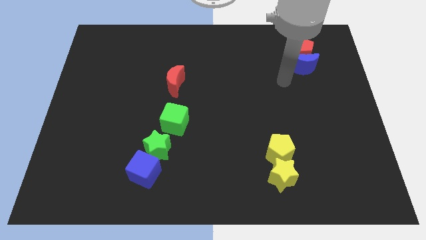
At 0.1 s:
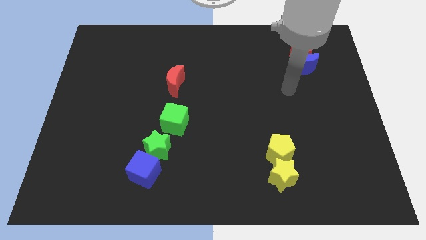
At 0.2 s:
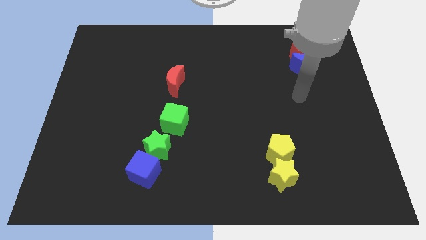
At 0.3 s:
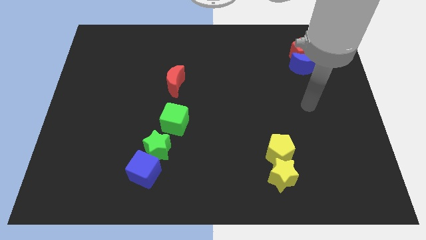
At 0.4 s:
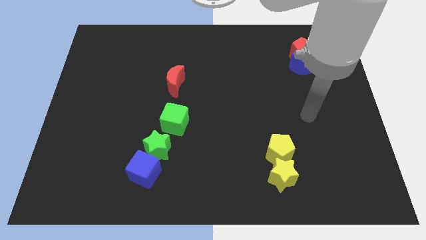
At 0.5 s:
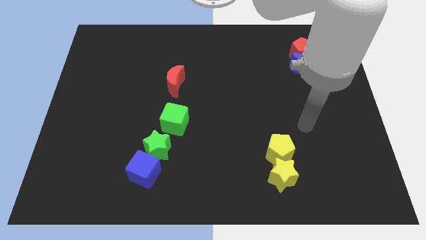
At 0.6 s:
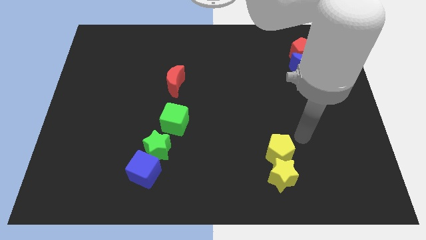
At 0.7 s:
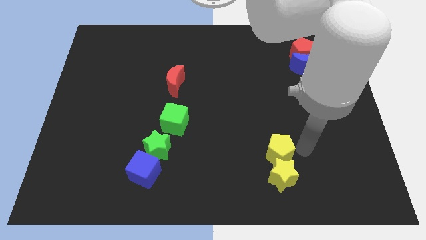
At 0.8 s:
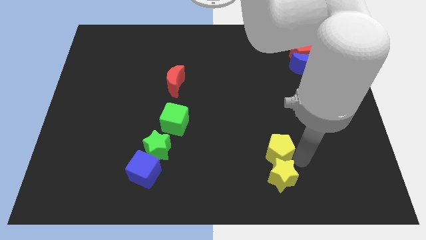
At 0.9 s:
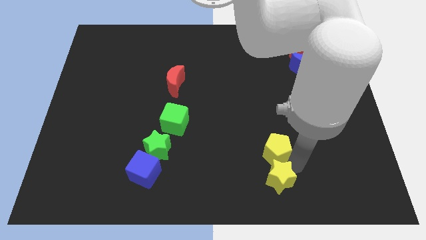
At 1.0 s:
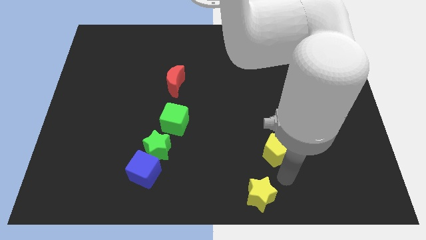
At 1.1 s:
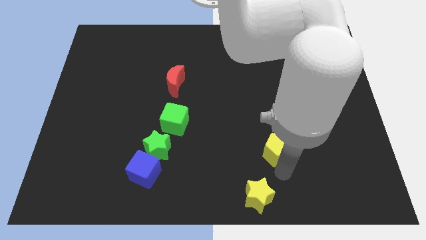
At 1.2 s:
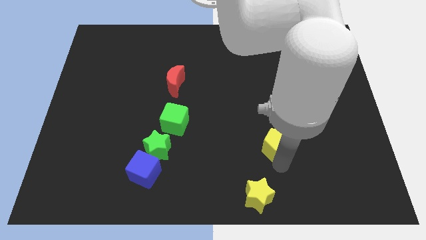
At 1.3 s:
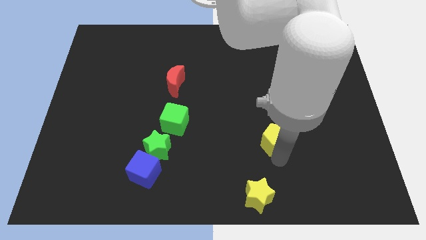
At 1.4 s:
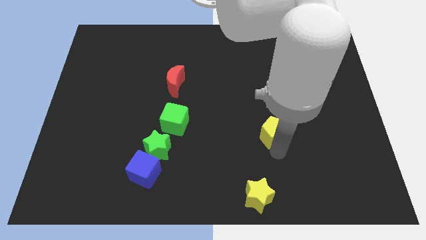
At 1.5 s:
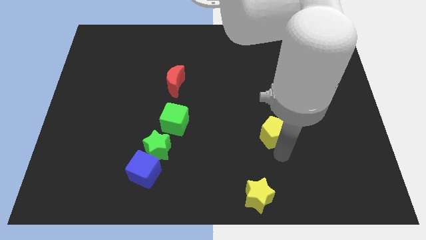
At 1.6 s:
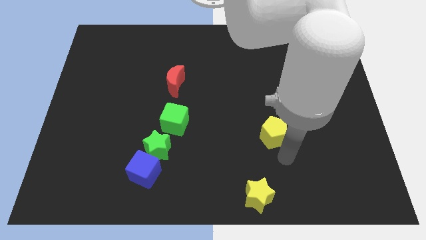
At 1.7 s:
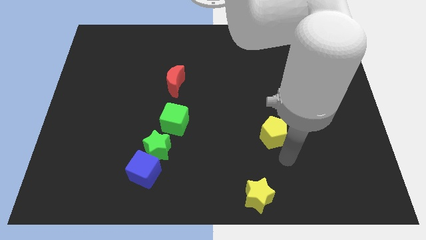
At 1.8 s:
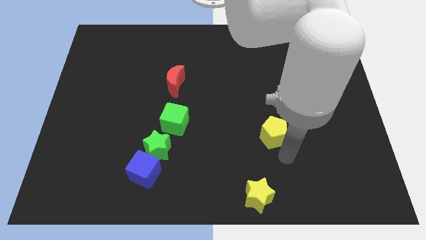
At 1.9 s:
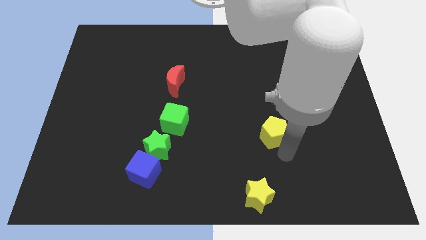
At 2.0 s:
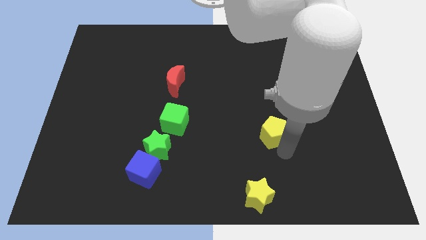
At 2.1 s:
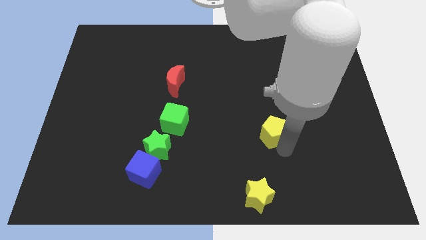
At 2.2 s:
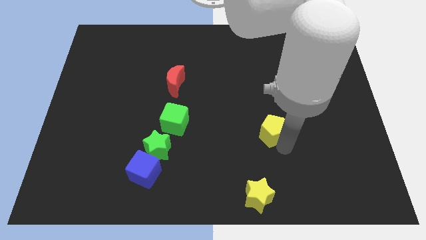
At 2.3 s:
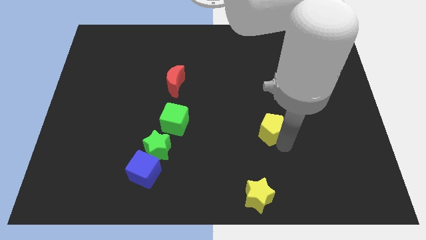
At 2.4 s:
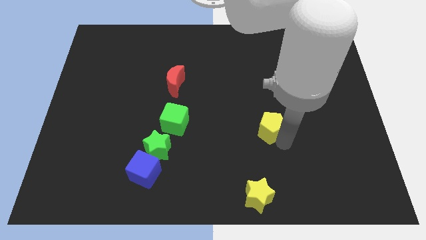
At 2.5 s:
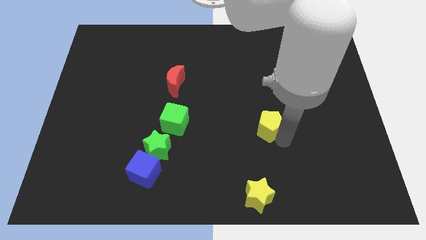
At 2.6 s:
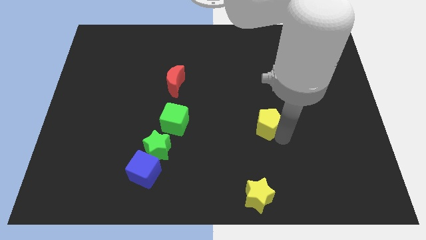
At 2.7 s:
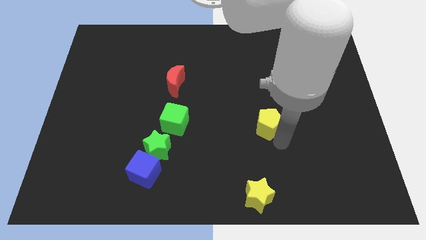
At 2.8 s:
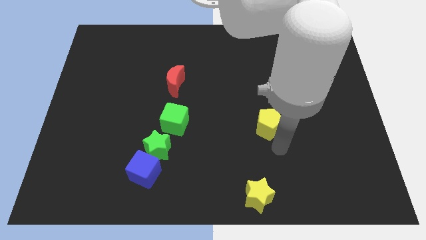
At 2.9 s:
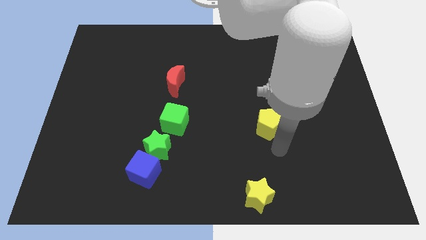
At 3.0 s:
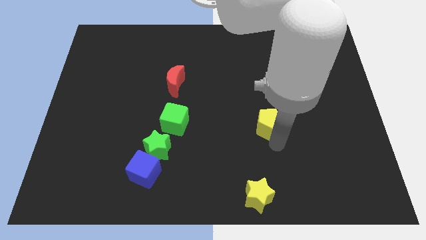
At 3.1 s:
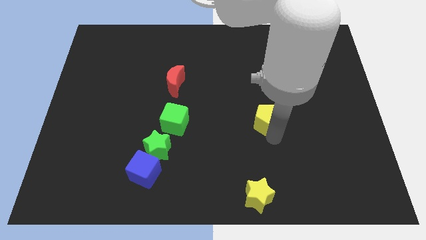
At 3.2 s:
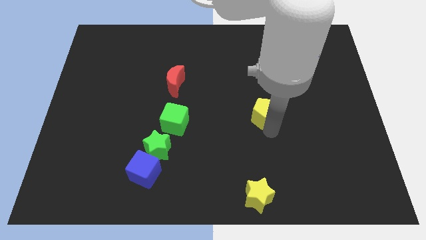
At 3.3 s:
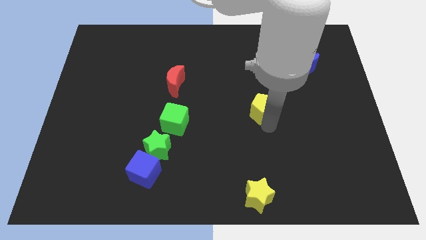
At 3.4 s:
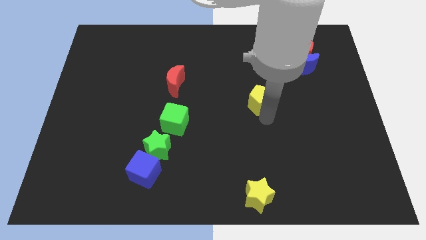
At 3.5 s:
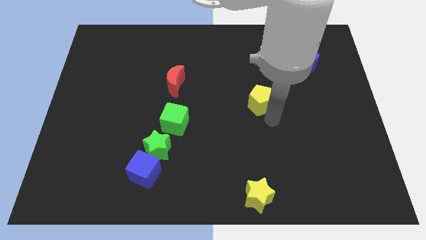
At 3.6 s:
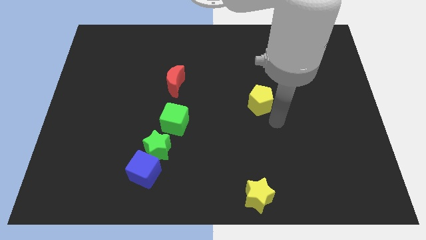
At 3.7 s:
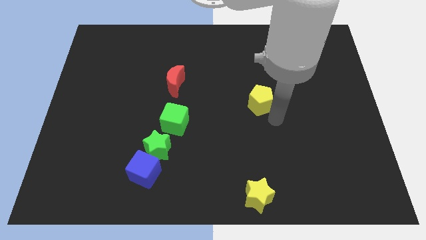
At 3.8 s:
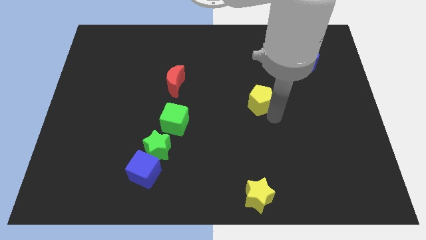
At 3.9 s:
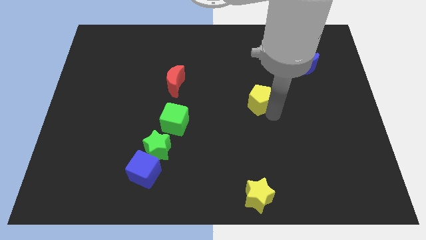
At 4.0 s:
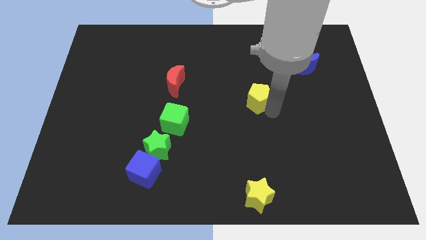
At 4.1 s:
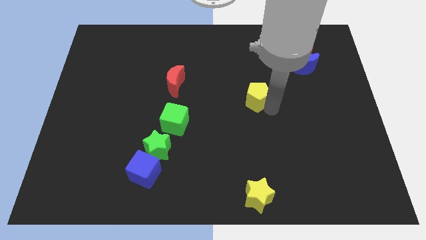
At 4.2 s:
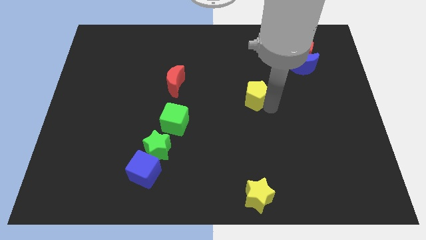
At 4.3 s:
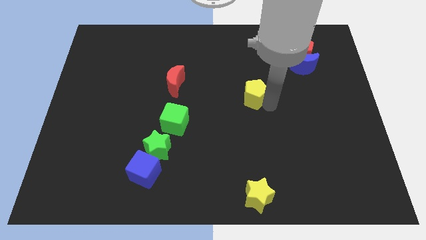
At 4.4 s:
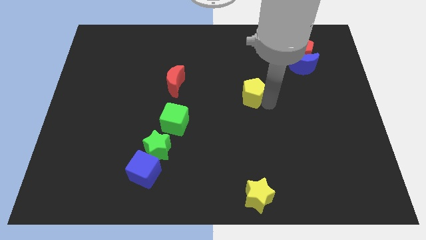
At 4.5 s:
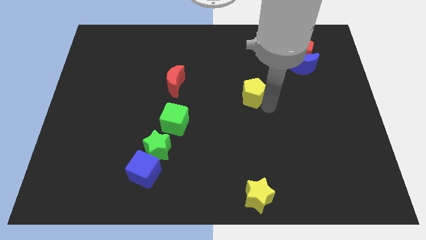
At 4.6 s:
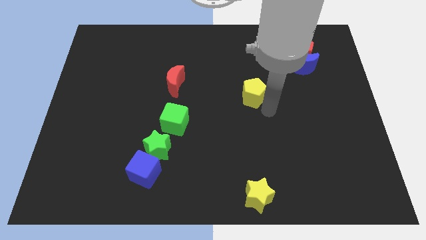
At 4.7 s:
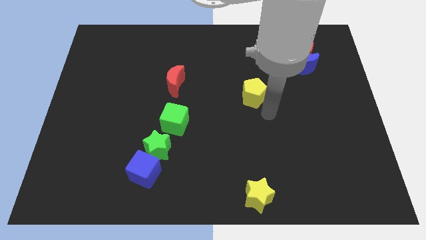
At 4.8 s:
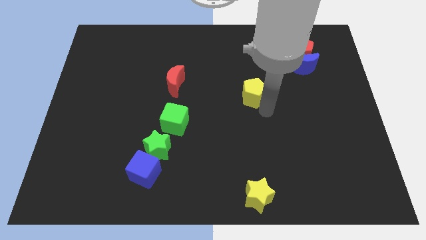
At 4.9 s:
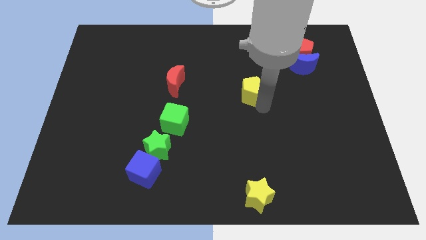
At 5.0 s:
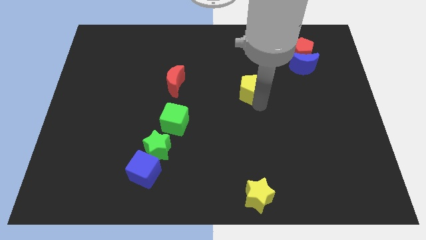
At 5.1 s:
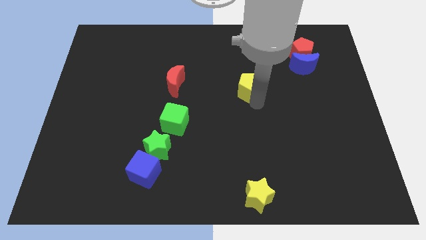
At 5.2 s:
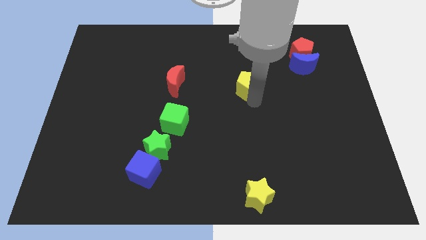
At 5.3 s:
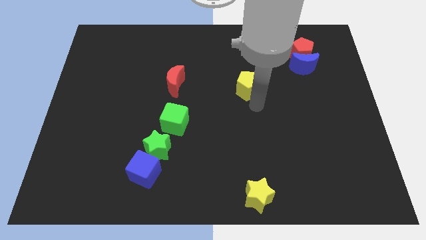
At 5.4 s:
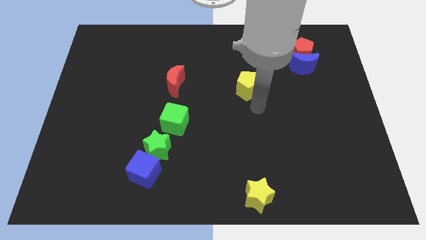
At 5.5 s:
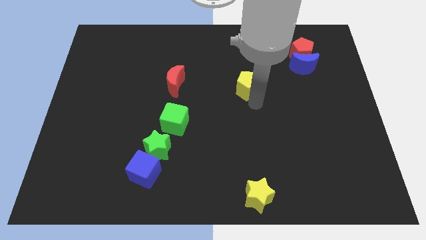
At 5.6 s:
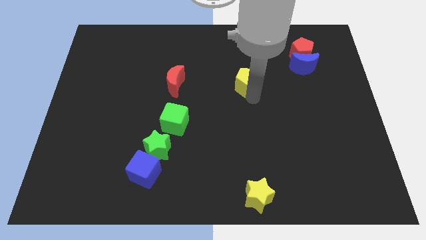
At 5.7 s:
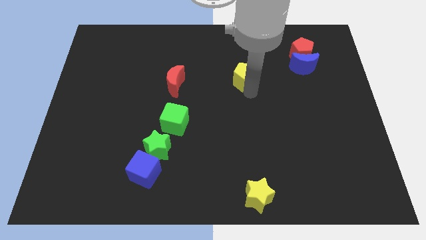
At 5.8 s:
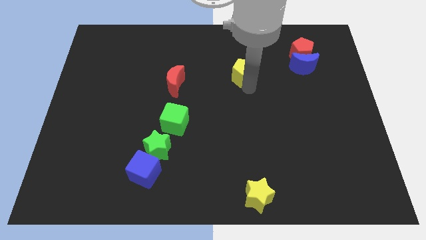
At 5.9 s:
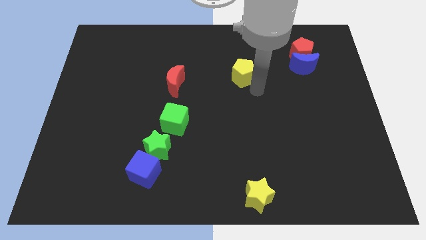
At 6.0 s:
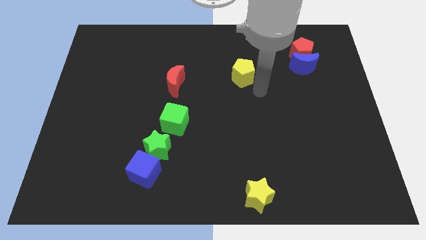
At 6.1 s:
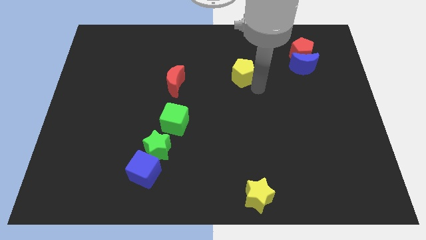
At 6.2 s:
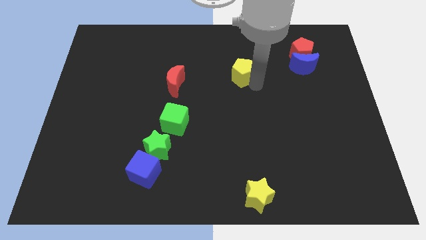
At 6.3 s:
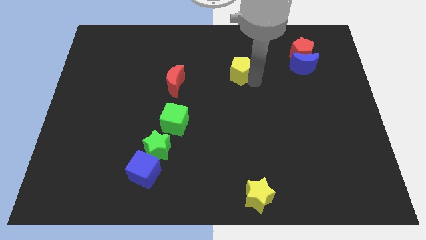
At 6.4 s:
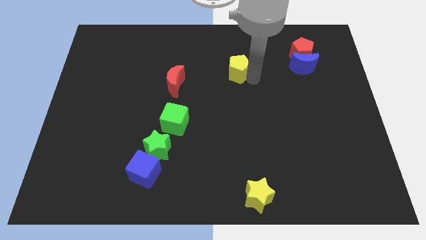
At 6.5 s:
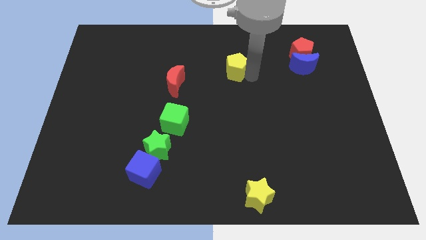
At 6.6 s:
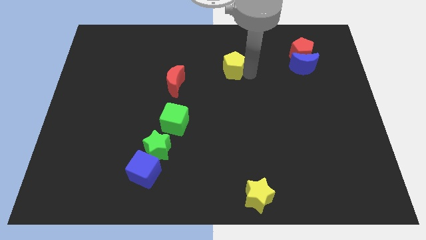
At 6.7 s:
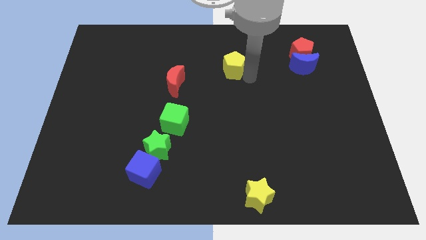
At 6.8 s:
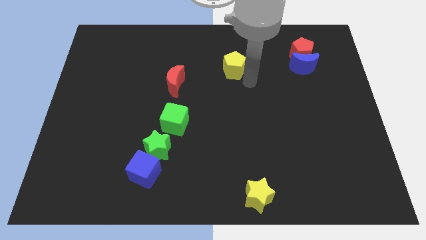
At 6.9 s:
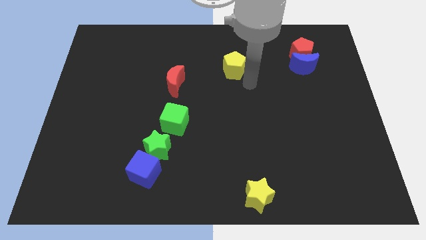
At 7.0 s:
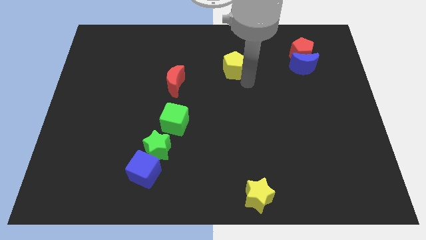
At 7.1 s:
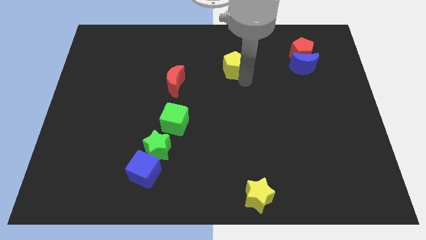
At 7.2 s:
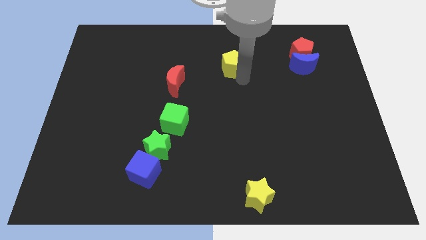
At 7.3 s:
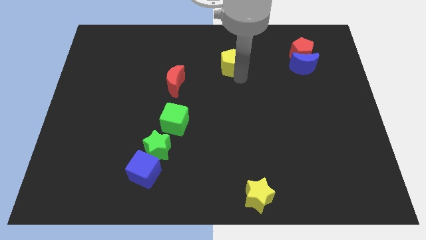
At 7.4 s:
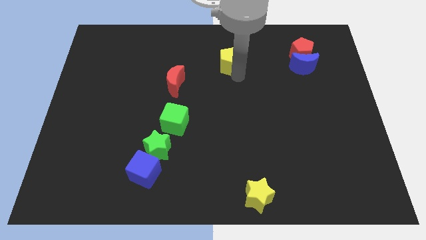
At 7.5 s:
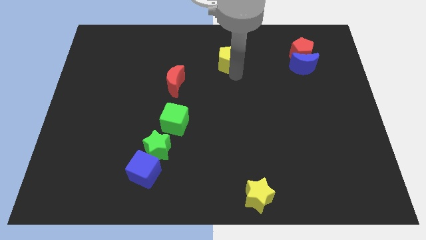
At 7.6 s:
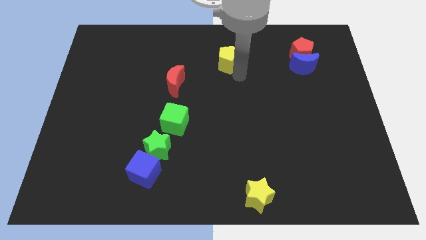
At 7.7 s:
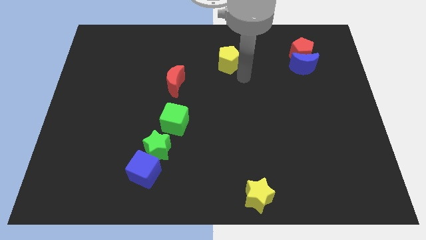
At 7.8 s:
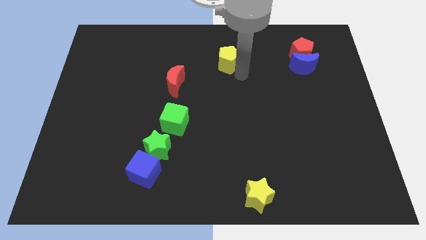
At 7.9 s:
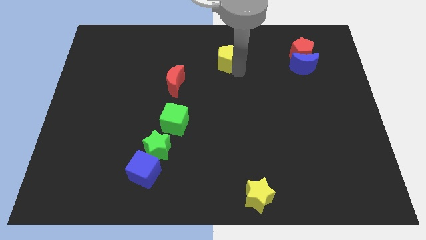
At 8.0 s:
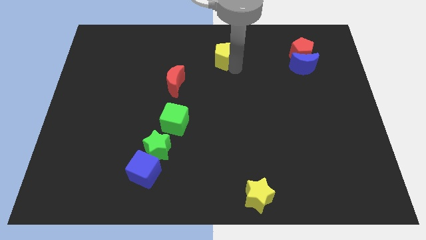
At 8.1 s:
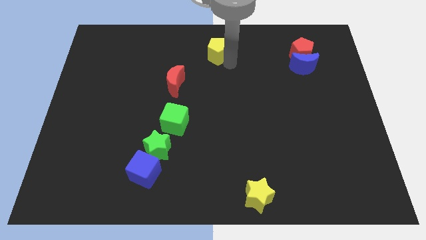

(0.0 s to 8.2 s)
put the yellow pentagon to the top
